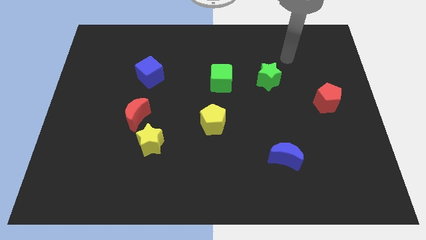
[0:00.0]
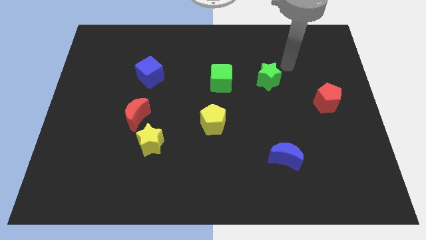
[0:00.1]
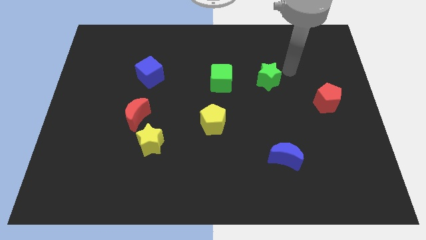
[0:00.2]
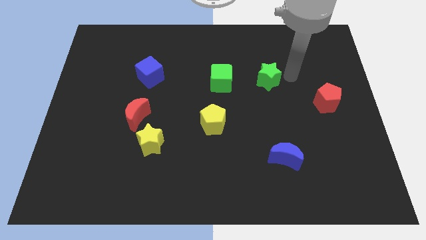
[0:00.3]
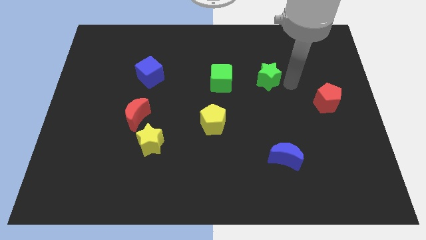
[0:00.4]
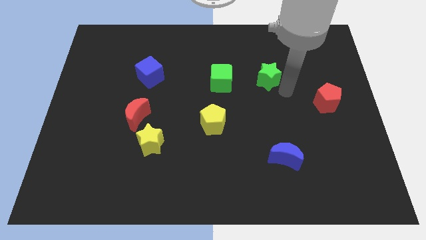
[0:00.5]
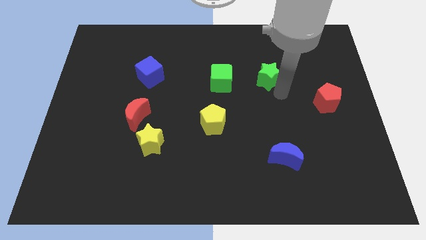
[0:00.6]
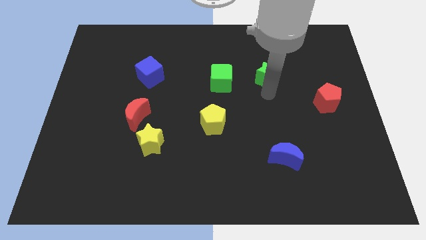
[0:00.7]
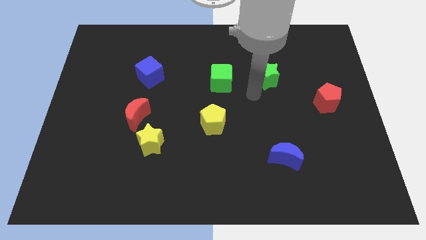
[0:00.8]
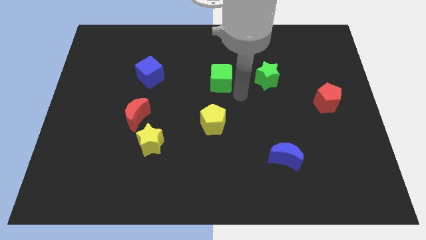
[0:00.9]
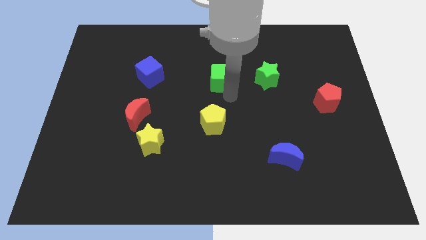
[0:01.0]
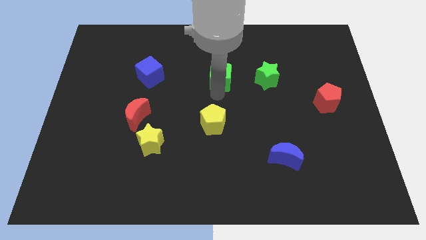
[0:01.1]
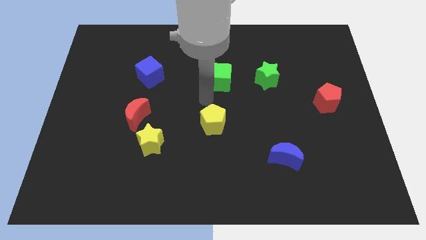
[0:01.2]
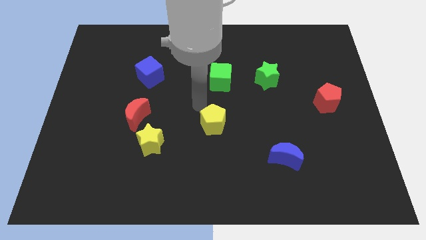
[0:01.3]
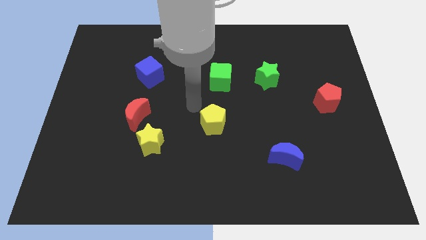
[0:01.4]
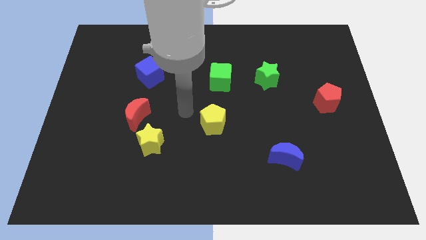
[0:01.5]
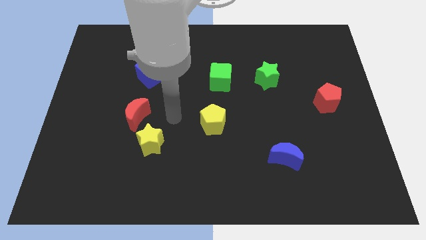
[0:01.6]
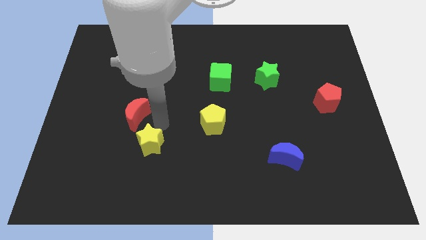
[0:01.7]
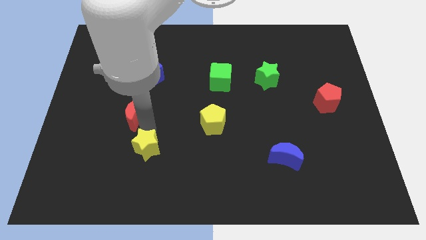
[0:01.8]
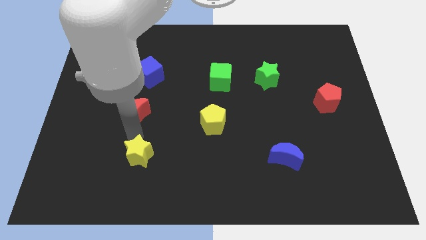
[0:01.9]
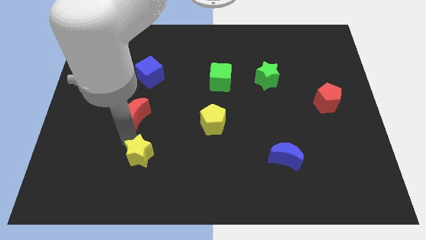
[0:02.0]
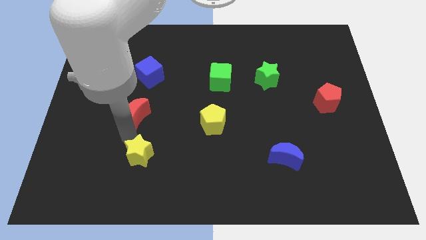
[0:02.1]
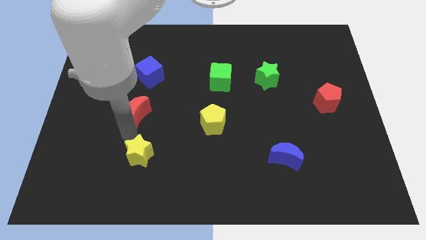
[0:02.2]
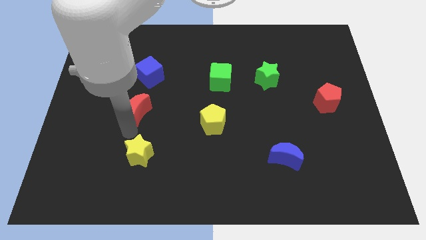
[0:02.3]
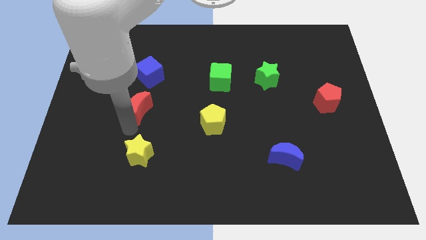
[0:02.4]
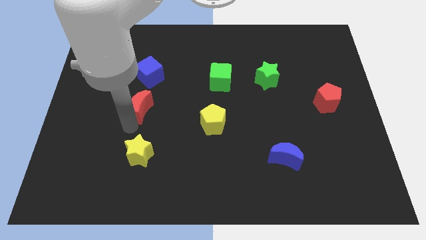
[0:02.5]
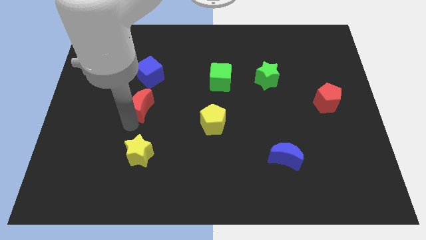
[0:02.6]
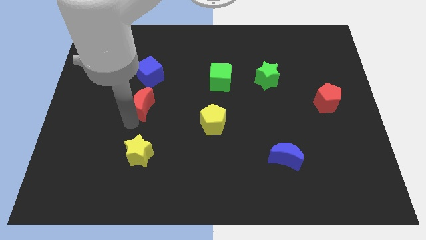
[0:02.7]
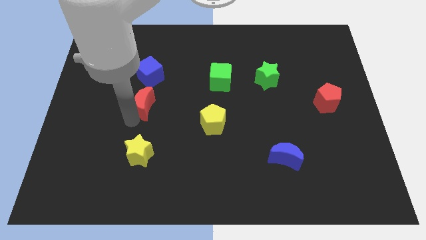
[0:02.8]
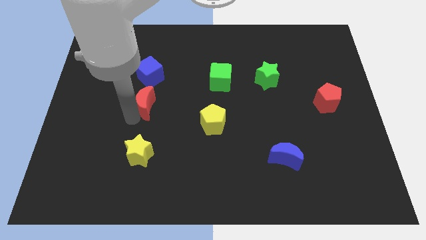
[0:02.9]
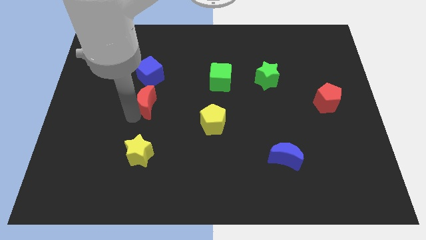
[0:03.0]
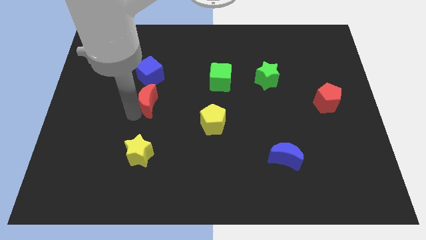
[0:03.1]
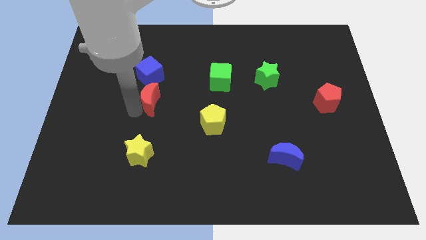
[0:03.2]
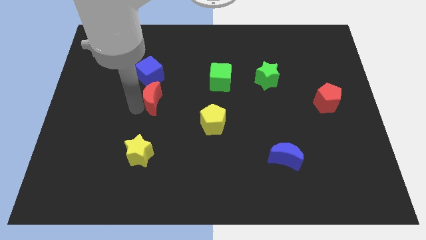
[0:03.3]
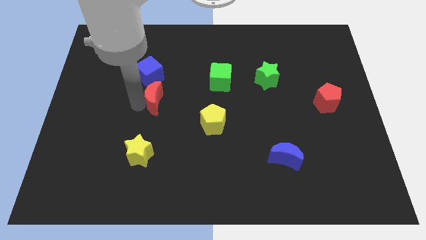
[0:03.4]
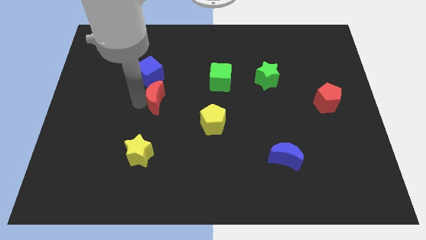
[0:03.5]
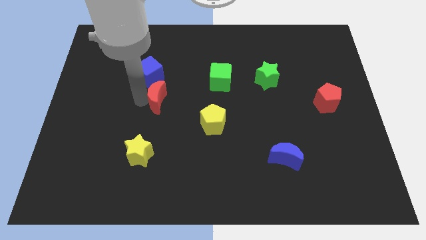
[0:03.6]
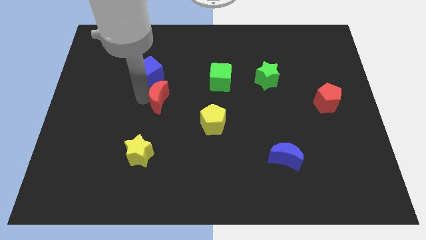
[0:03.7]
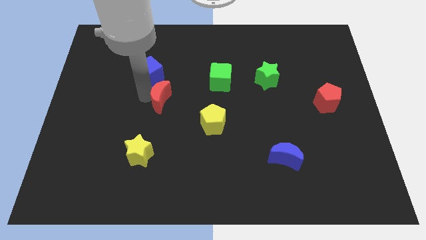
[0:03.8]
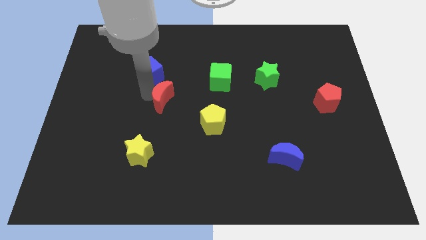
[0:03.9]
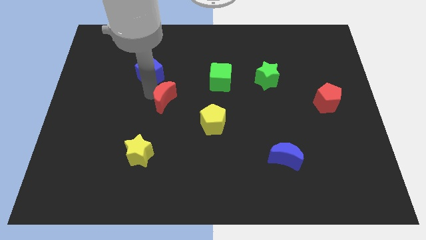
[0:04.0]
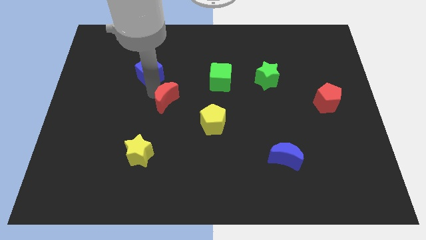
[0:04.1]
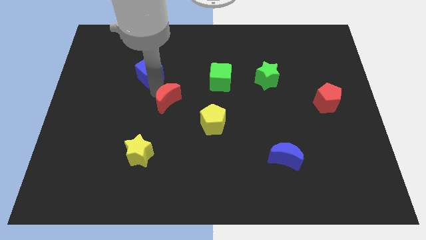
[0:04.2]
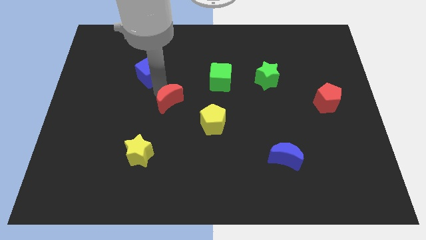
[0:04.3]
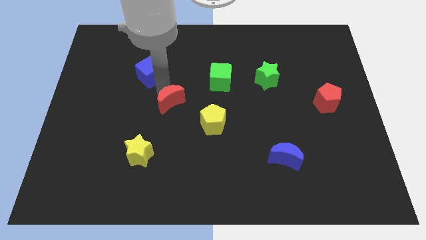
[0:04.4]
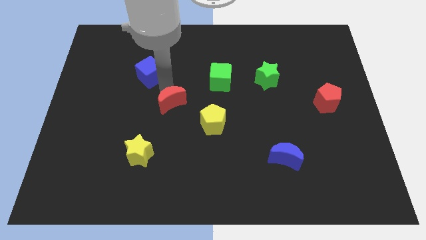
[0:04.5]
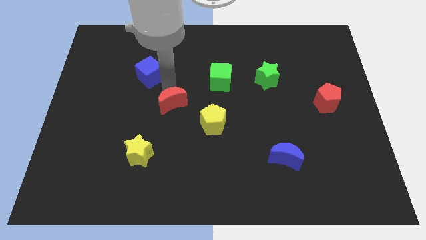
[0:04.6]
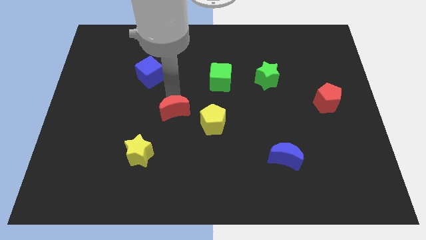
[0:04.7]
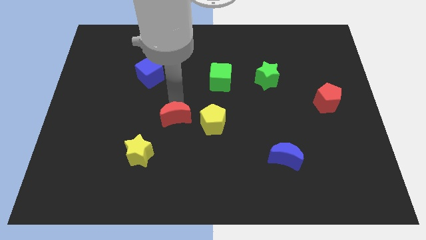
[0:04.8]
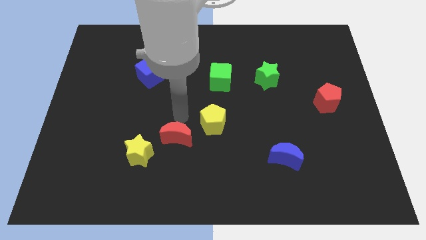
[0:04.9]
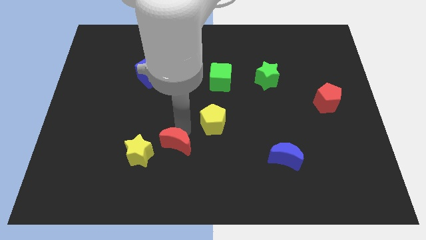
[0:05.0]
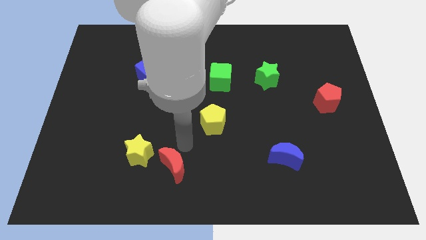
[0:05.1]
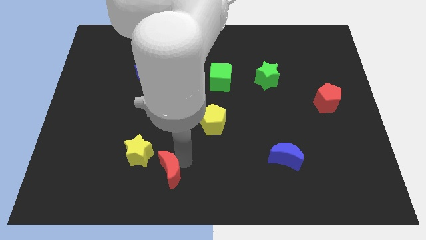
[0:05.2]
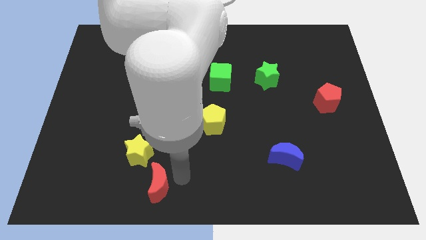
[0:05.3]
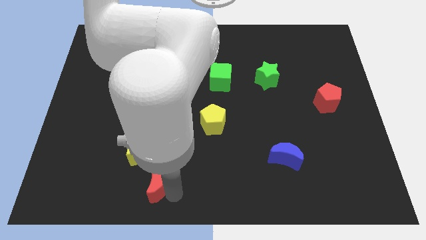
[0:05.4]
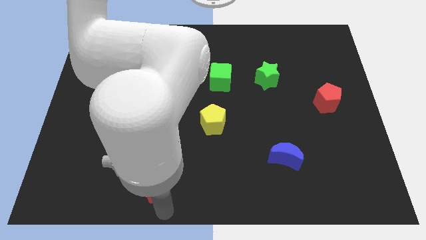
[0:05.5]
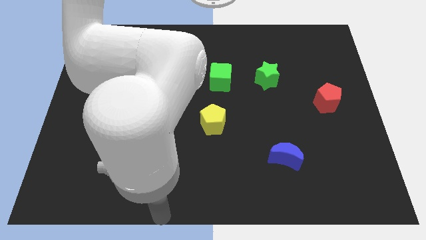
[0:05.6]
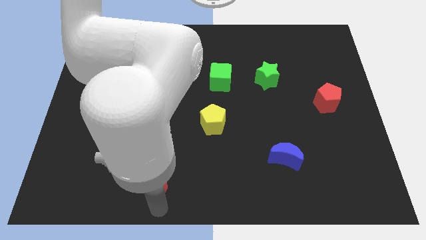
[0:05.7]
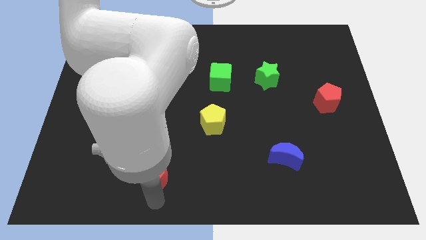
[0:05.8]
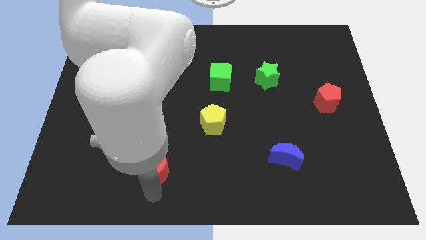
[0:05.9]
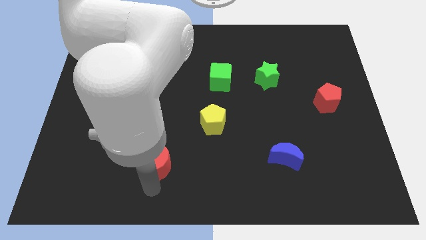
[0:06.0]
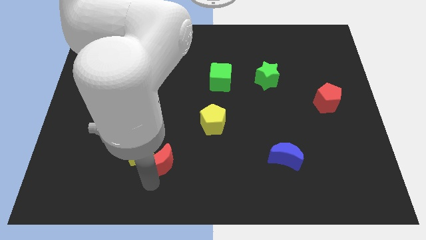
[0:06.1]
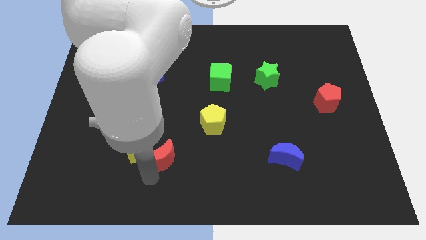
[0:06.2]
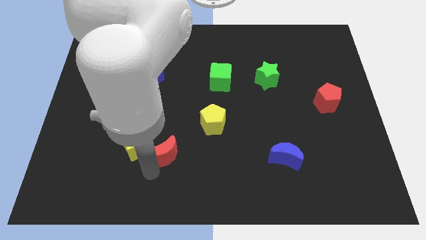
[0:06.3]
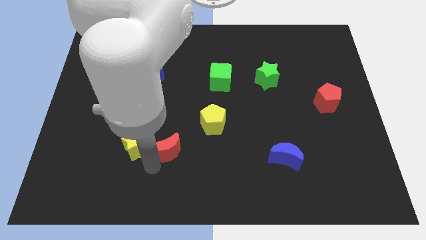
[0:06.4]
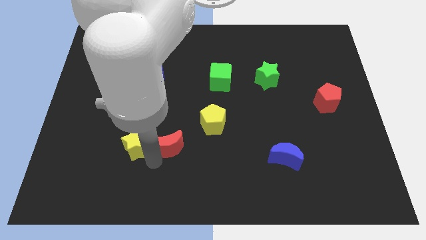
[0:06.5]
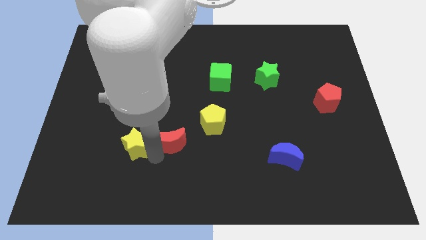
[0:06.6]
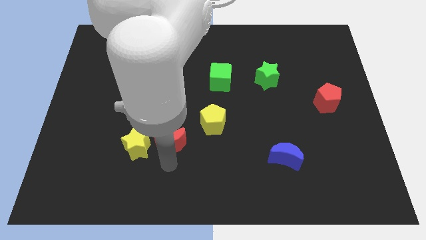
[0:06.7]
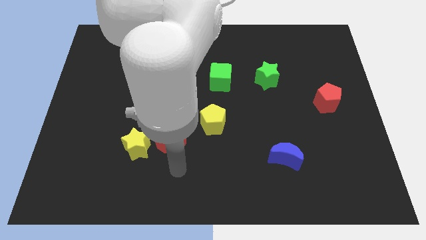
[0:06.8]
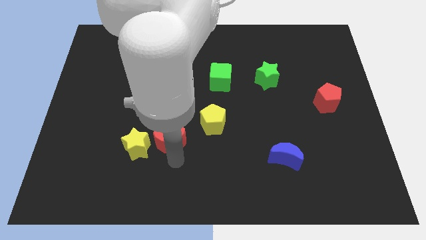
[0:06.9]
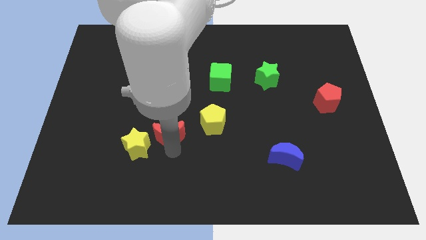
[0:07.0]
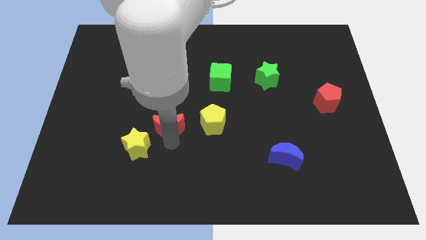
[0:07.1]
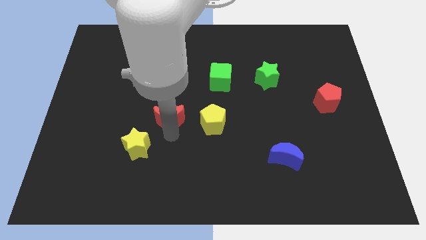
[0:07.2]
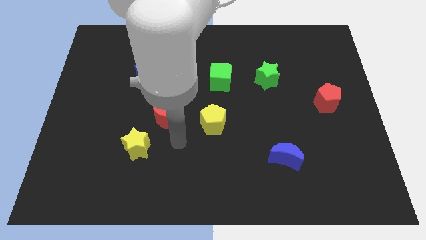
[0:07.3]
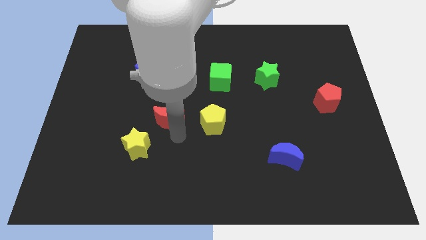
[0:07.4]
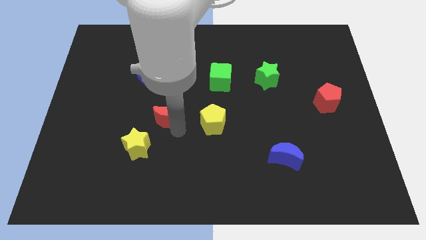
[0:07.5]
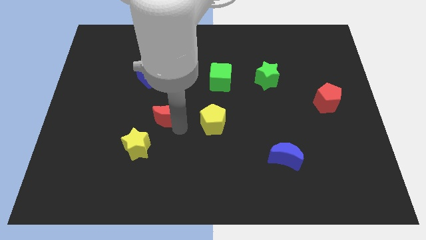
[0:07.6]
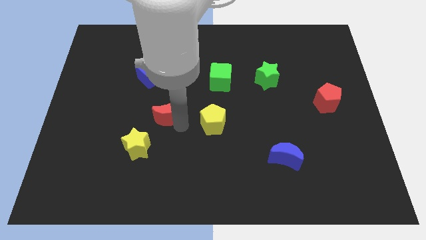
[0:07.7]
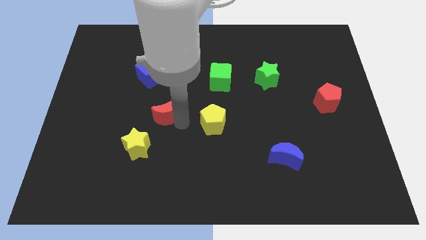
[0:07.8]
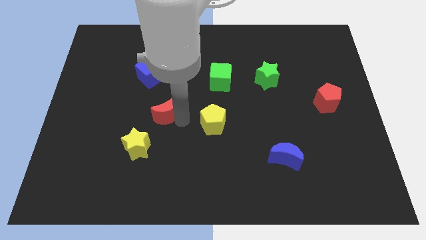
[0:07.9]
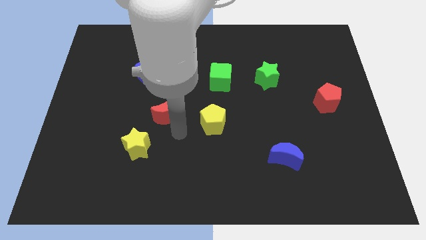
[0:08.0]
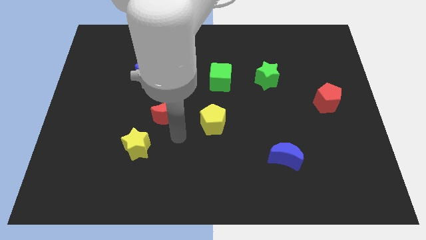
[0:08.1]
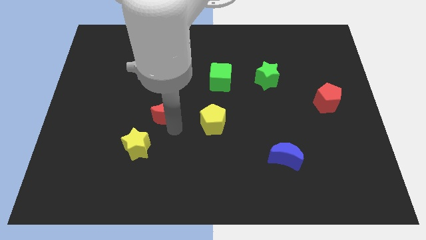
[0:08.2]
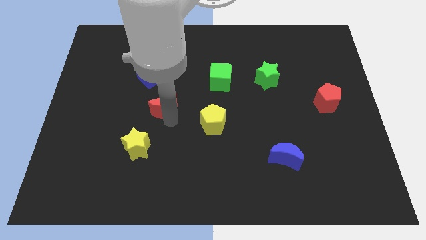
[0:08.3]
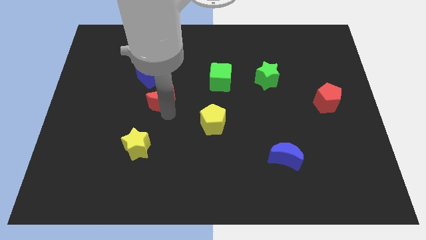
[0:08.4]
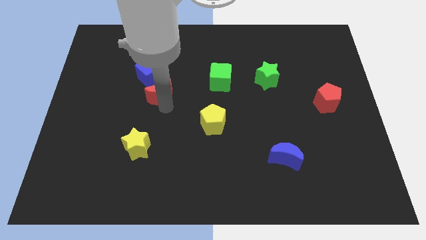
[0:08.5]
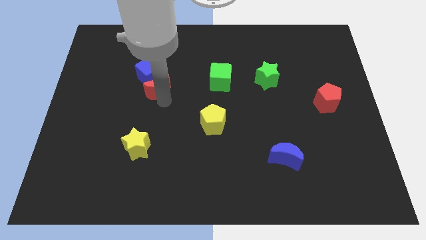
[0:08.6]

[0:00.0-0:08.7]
push the red moon close to the blue cube
